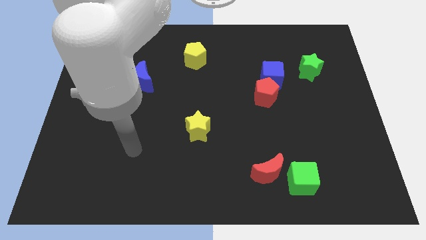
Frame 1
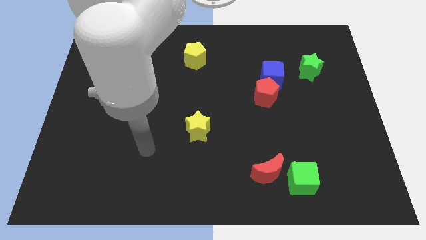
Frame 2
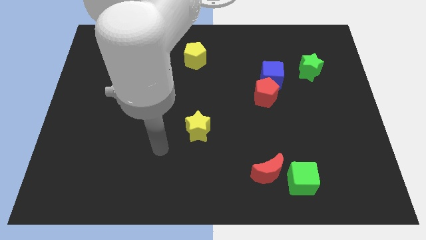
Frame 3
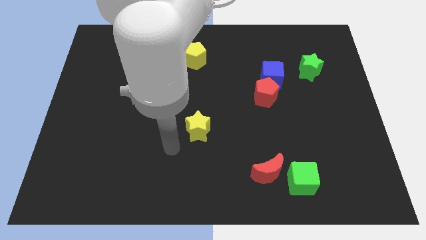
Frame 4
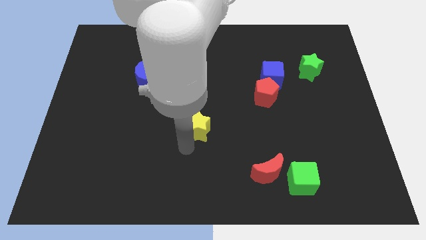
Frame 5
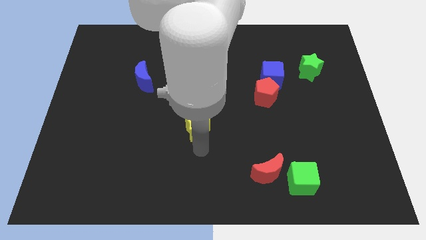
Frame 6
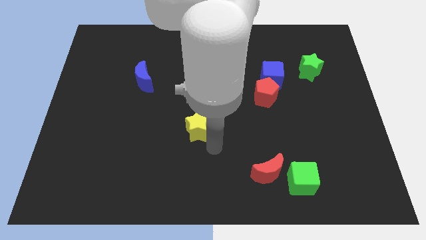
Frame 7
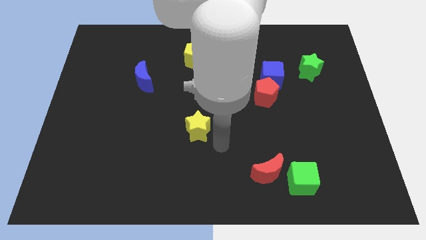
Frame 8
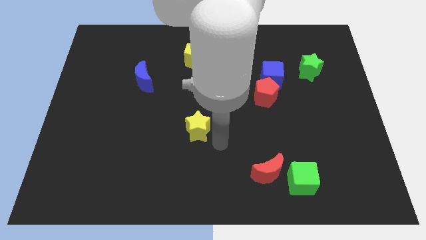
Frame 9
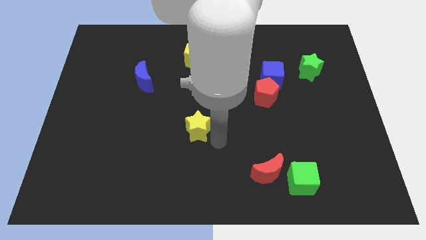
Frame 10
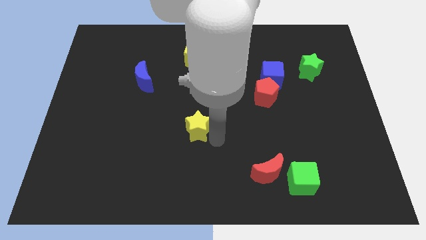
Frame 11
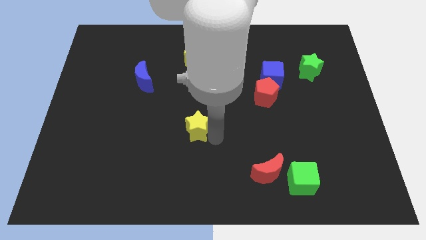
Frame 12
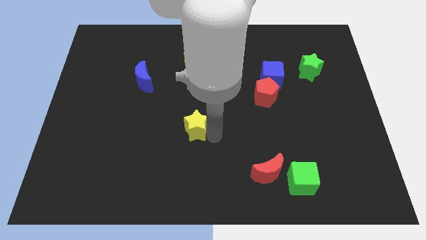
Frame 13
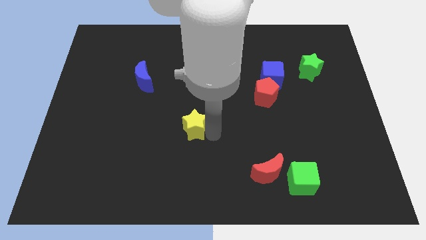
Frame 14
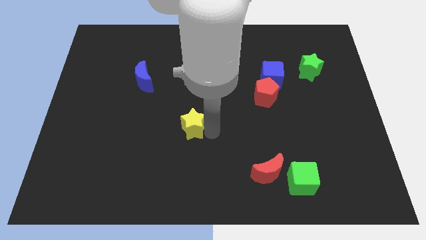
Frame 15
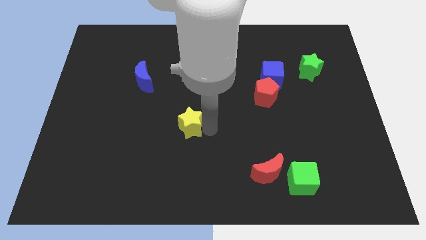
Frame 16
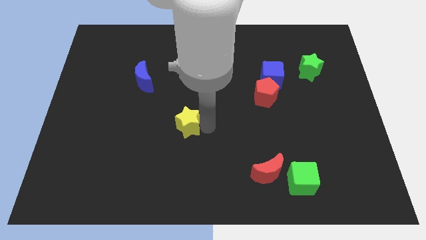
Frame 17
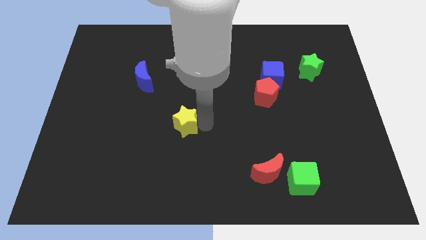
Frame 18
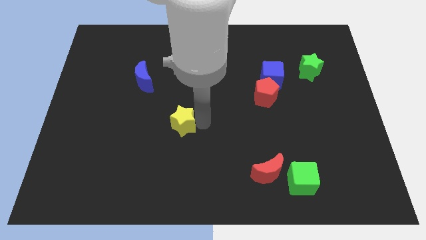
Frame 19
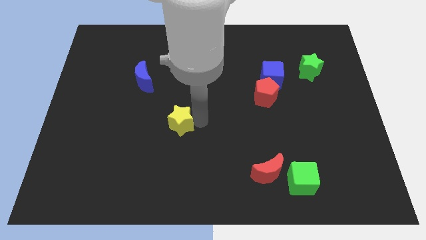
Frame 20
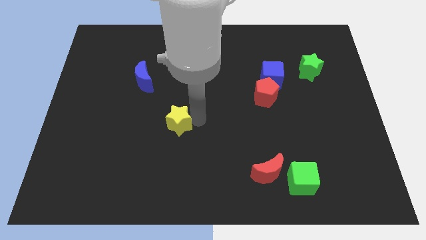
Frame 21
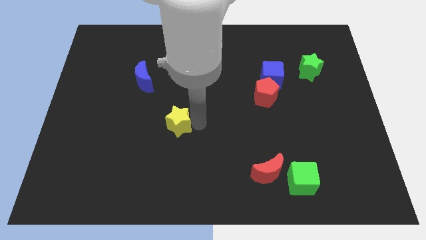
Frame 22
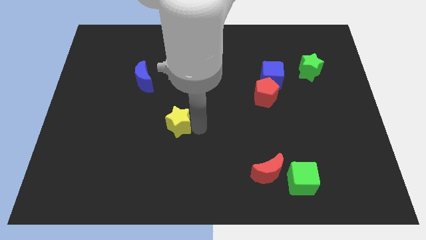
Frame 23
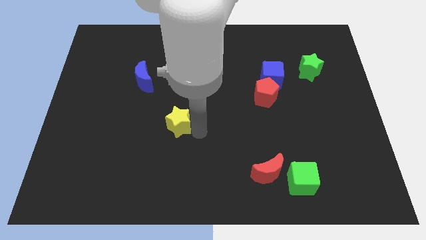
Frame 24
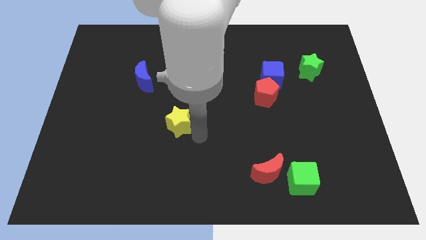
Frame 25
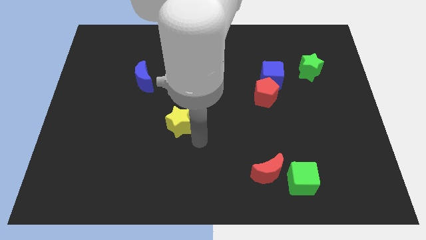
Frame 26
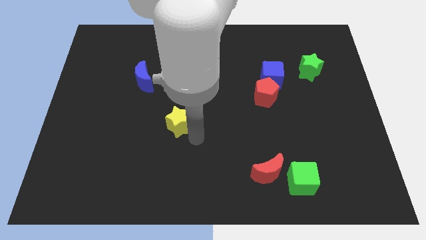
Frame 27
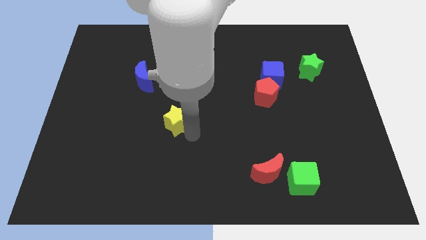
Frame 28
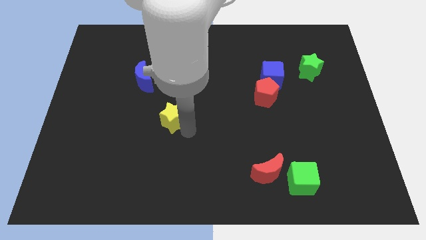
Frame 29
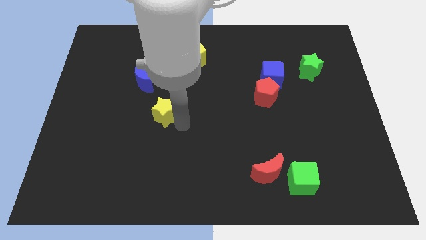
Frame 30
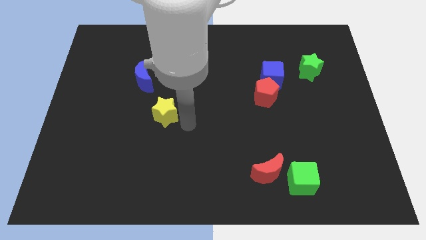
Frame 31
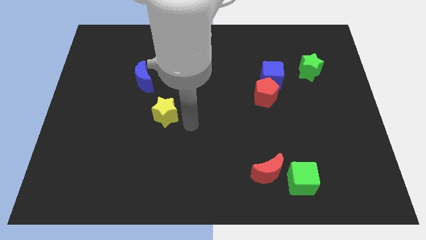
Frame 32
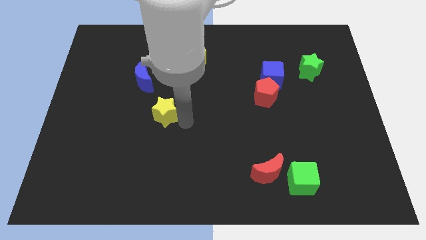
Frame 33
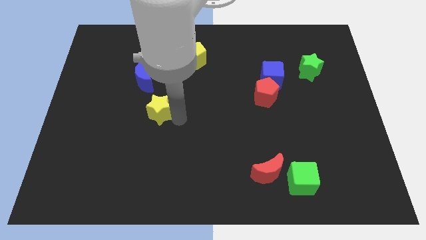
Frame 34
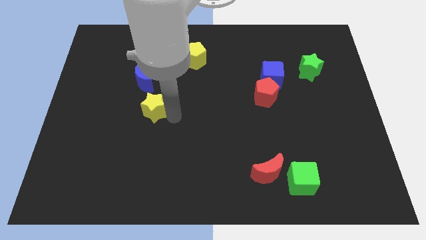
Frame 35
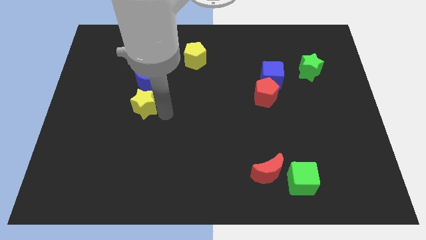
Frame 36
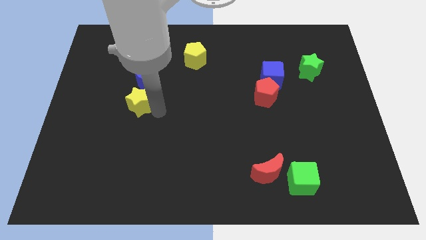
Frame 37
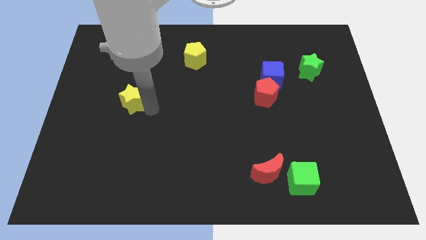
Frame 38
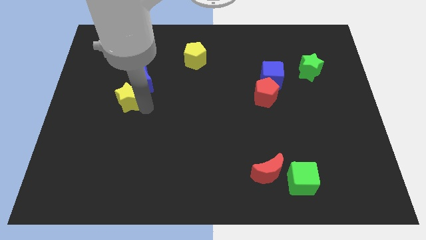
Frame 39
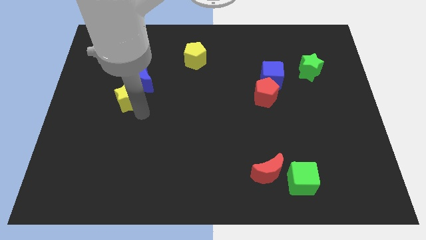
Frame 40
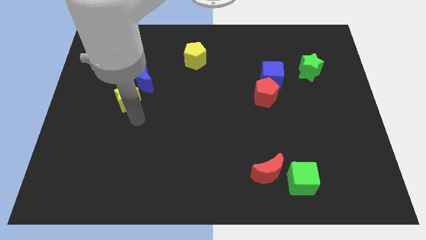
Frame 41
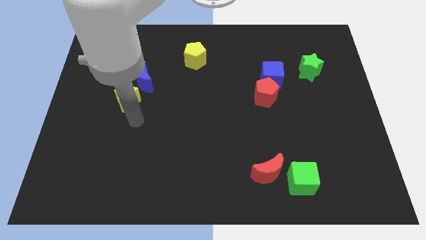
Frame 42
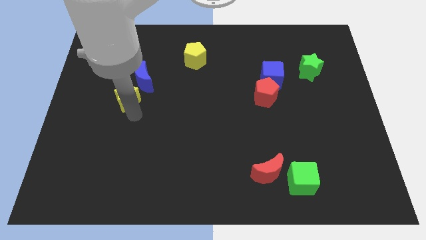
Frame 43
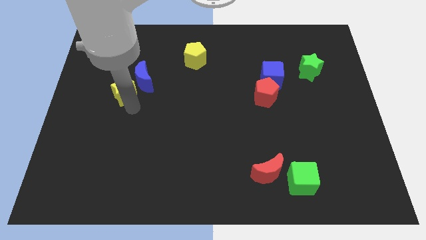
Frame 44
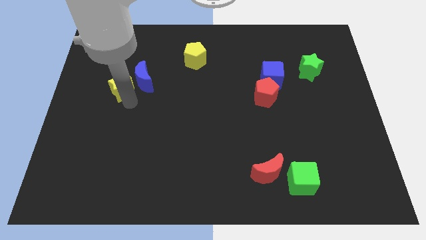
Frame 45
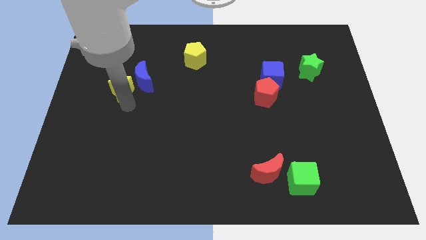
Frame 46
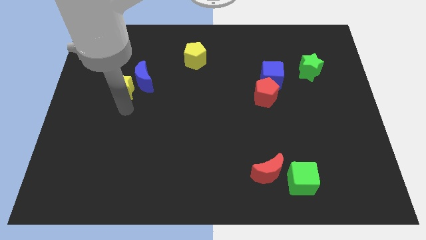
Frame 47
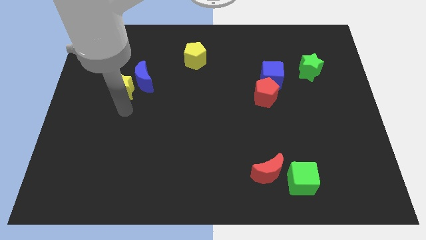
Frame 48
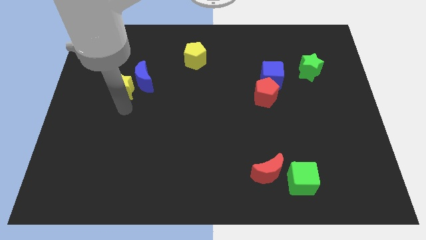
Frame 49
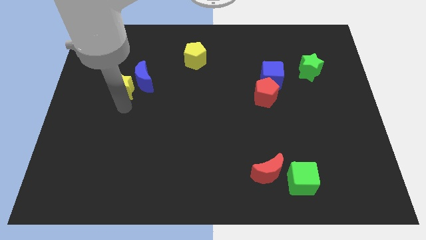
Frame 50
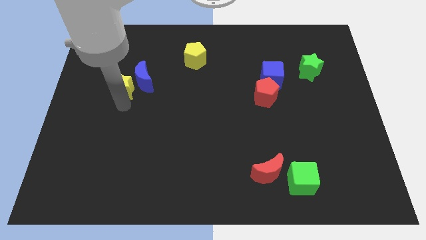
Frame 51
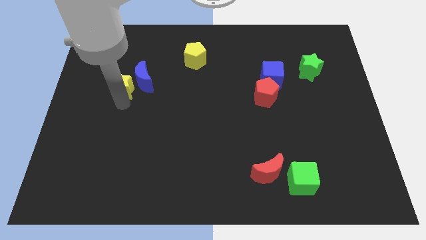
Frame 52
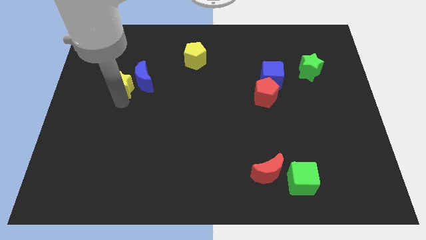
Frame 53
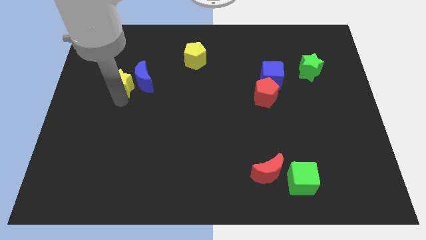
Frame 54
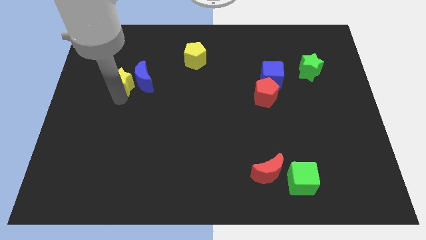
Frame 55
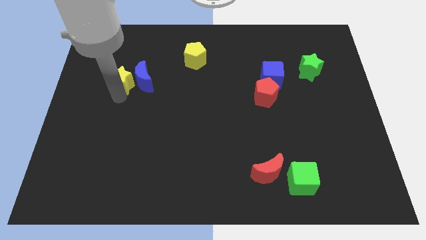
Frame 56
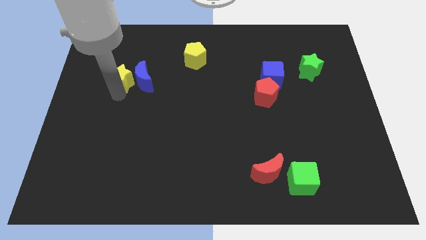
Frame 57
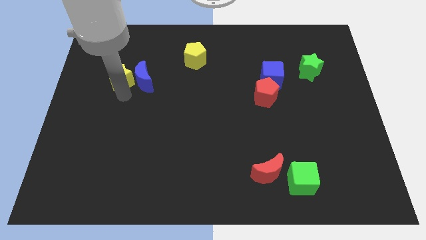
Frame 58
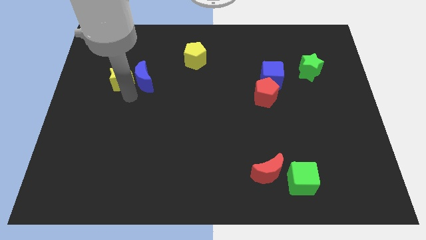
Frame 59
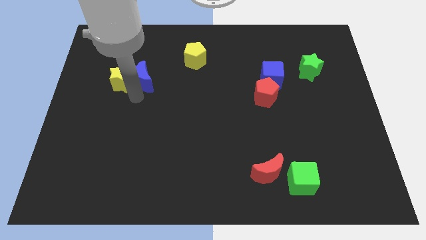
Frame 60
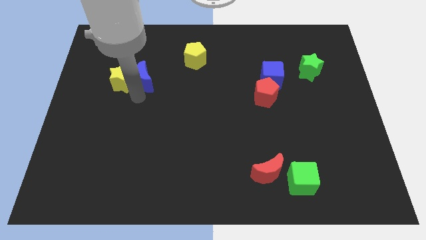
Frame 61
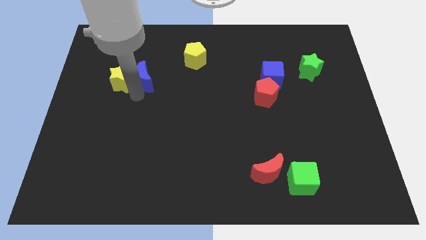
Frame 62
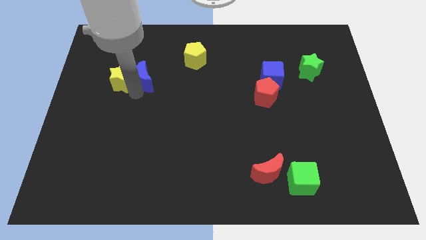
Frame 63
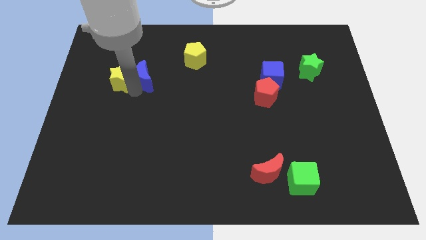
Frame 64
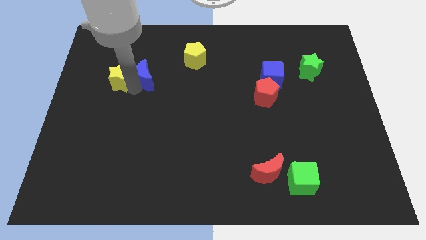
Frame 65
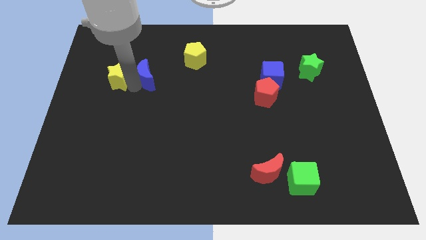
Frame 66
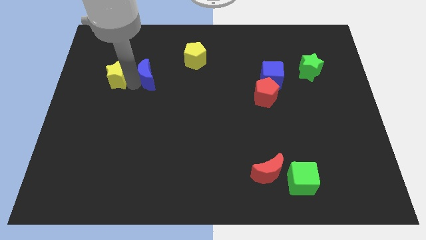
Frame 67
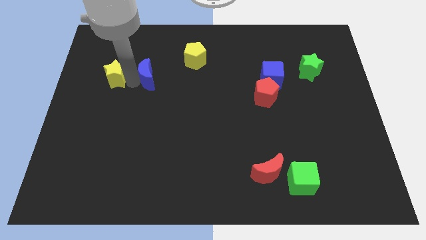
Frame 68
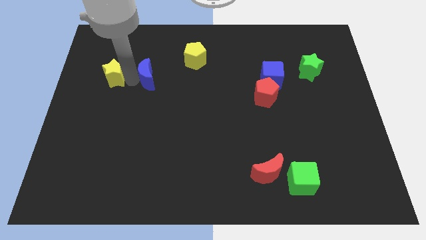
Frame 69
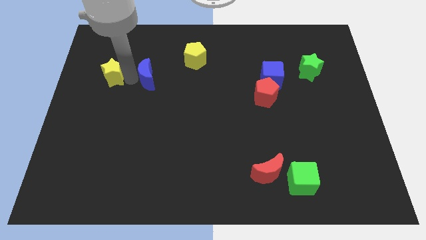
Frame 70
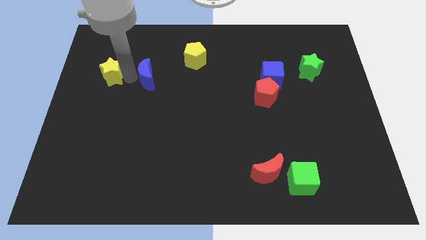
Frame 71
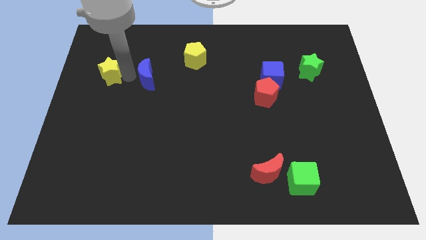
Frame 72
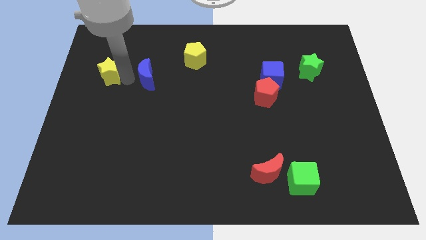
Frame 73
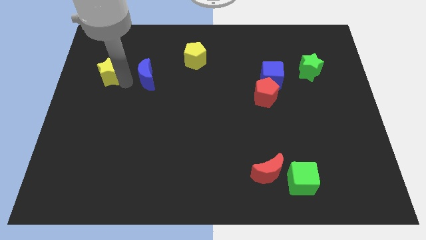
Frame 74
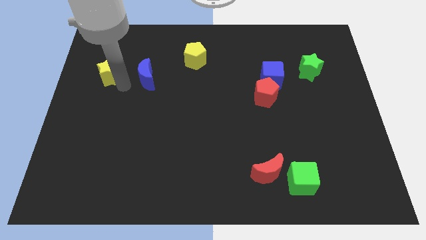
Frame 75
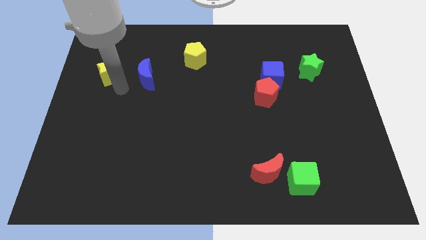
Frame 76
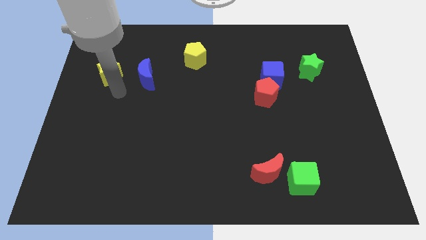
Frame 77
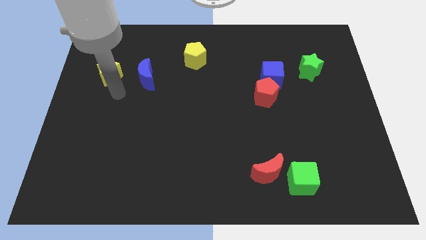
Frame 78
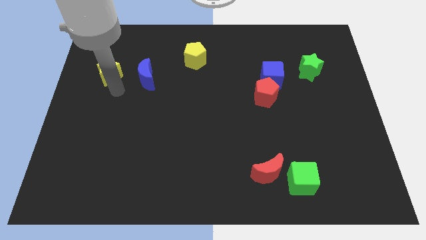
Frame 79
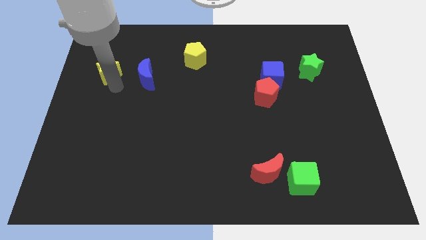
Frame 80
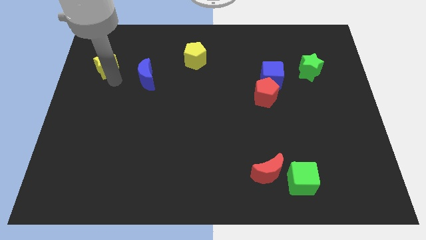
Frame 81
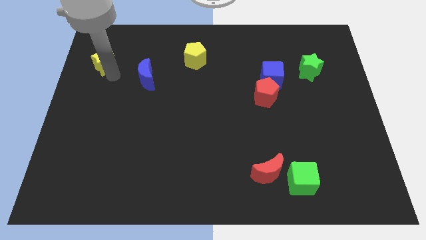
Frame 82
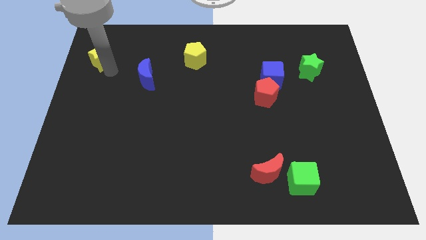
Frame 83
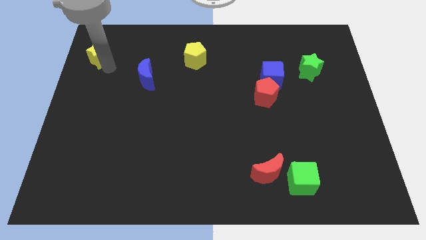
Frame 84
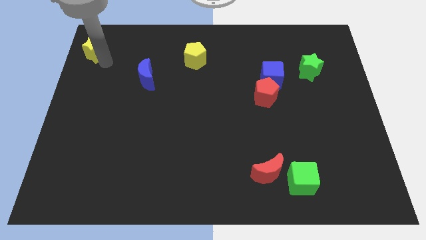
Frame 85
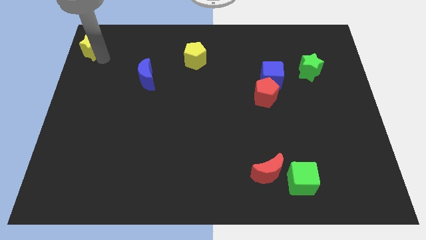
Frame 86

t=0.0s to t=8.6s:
move the yellow star to the top left corner
